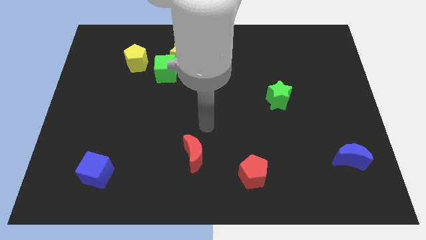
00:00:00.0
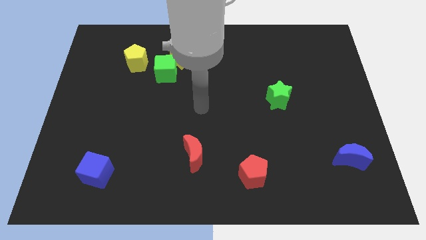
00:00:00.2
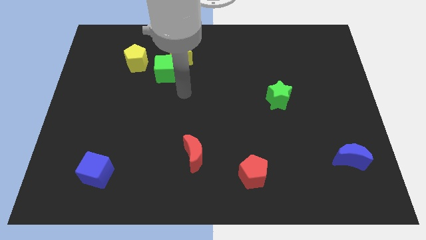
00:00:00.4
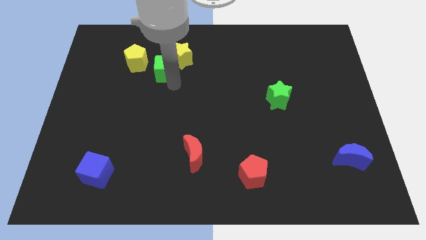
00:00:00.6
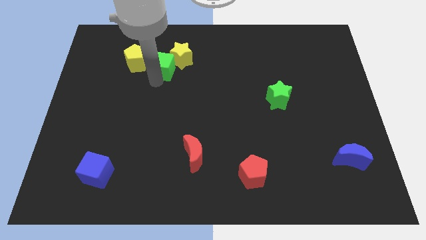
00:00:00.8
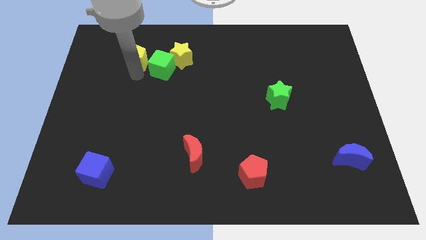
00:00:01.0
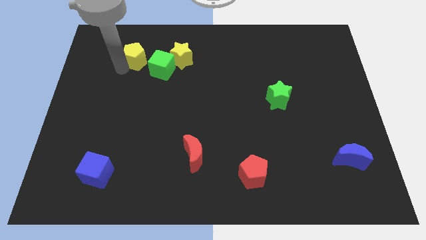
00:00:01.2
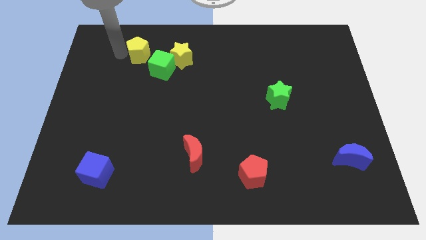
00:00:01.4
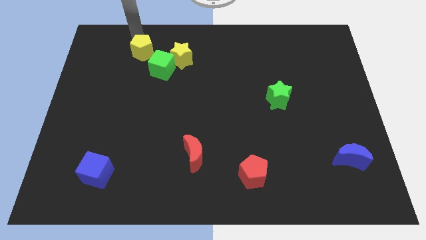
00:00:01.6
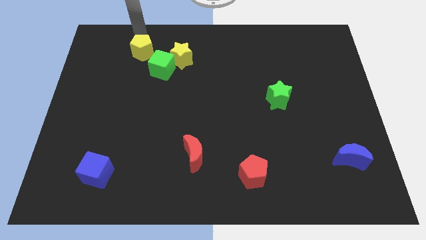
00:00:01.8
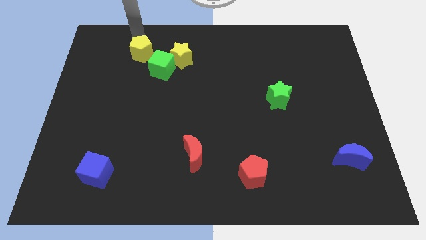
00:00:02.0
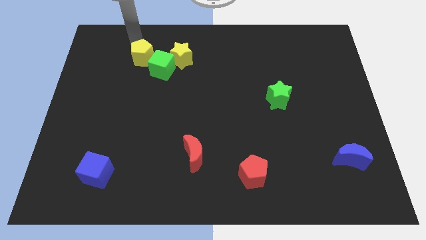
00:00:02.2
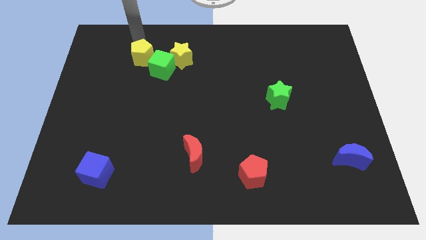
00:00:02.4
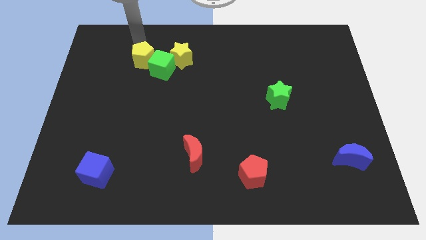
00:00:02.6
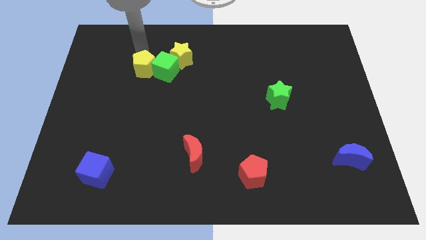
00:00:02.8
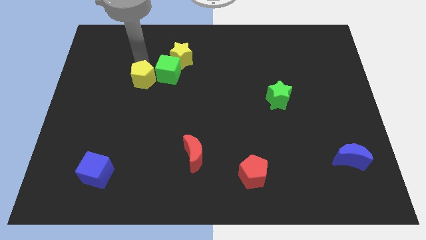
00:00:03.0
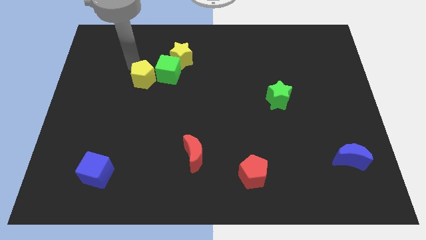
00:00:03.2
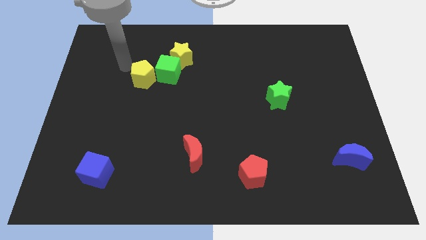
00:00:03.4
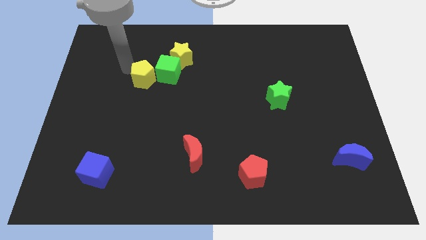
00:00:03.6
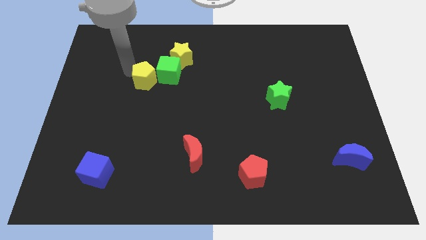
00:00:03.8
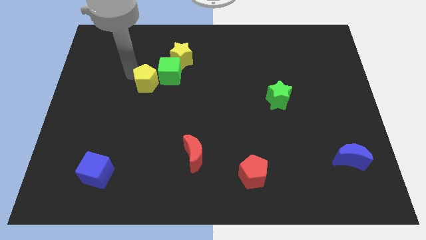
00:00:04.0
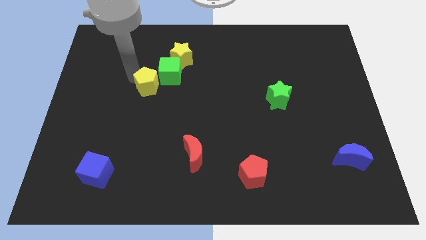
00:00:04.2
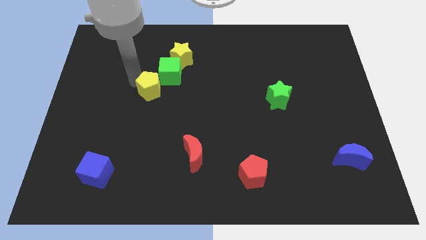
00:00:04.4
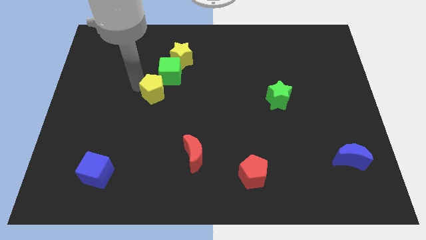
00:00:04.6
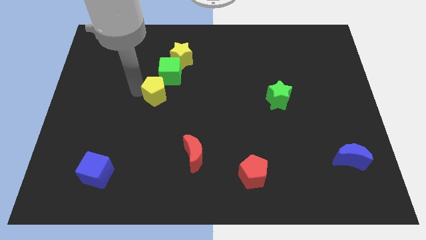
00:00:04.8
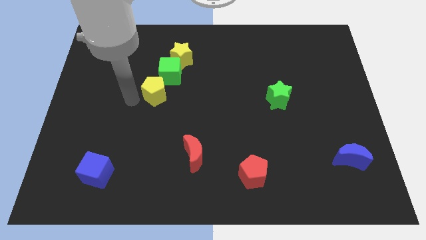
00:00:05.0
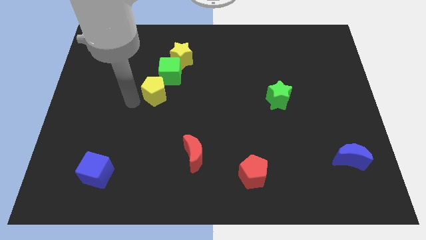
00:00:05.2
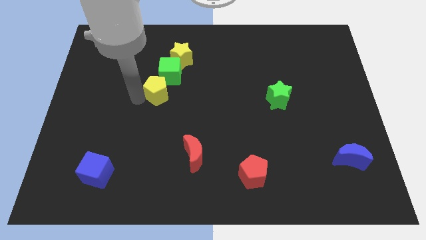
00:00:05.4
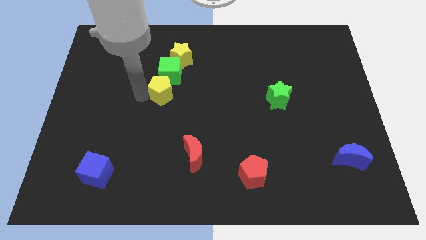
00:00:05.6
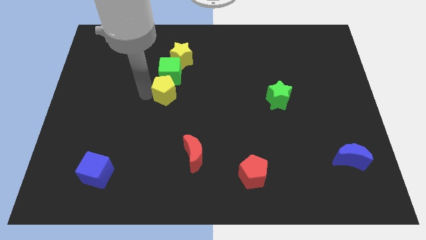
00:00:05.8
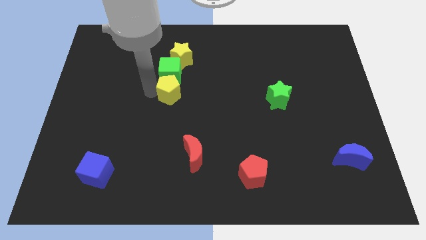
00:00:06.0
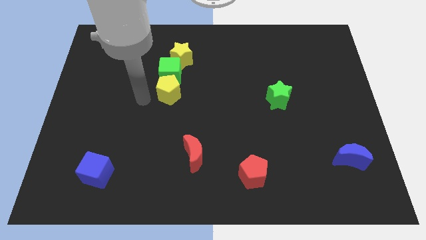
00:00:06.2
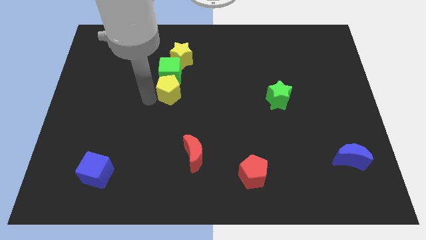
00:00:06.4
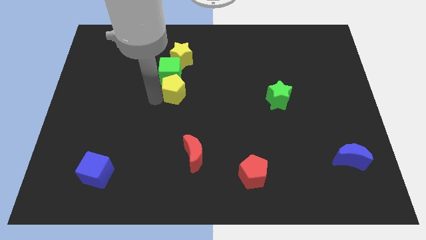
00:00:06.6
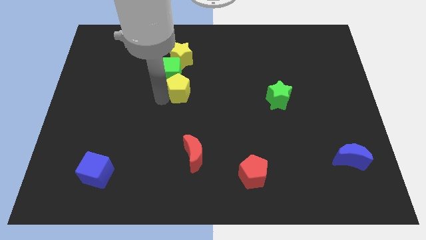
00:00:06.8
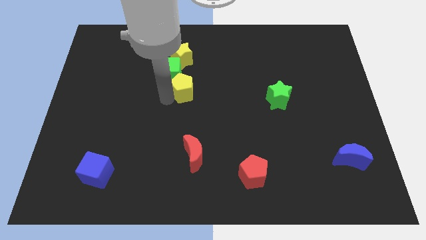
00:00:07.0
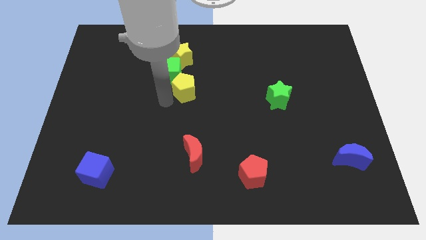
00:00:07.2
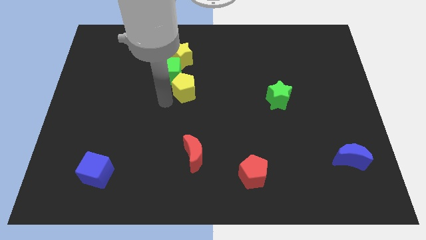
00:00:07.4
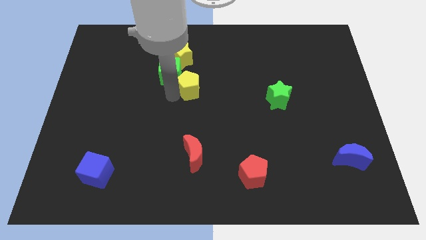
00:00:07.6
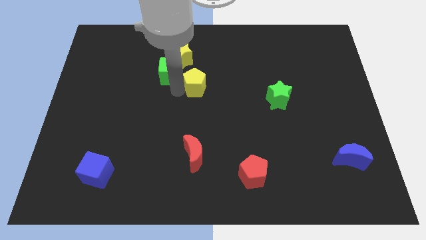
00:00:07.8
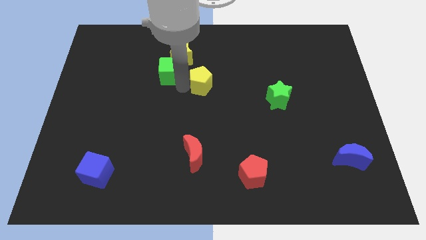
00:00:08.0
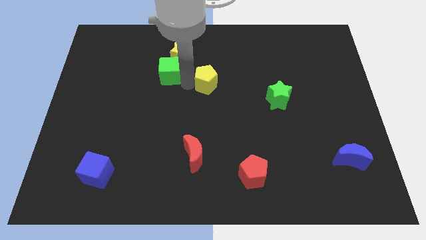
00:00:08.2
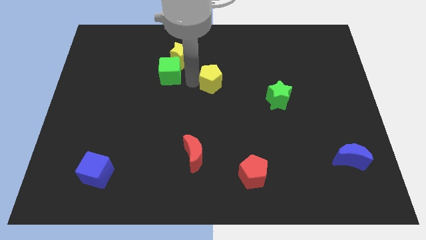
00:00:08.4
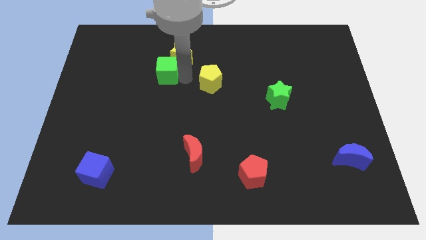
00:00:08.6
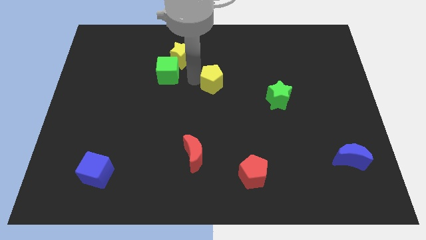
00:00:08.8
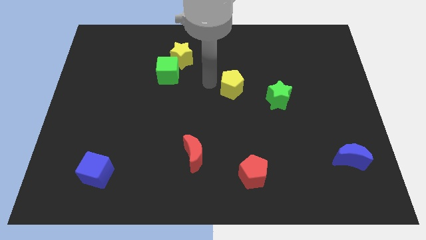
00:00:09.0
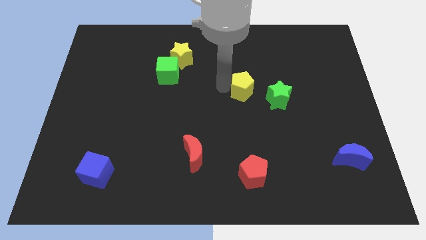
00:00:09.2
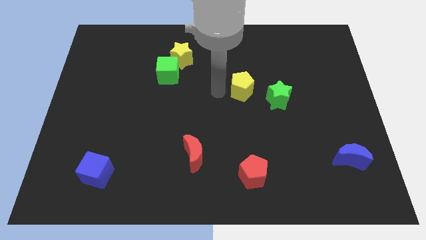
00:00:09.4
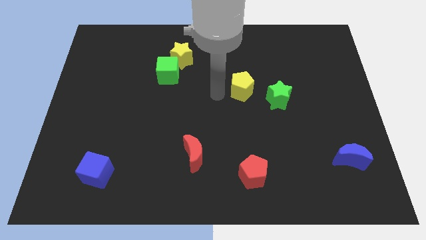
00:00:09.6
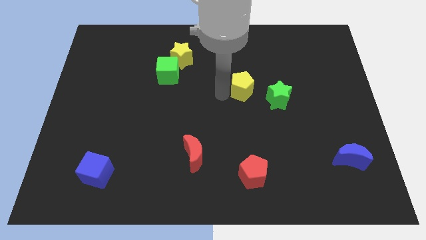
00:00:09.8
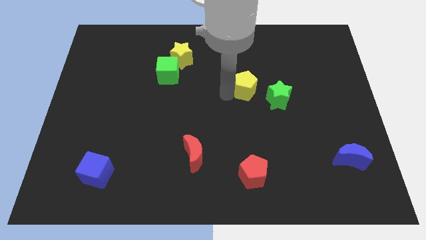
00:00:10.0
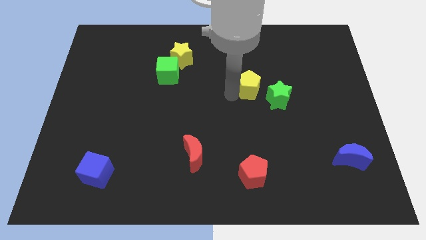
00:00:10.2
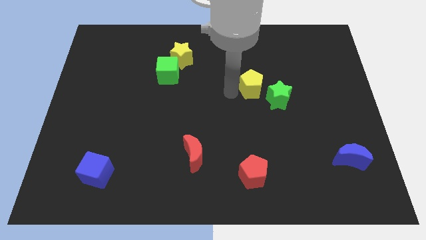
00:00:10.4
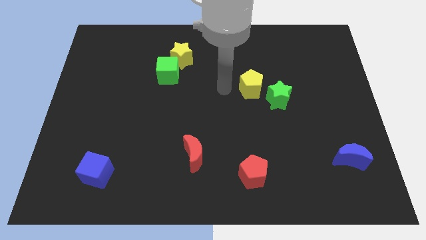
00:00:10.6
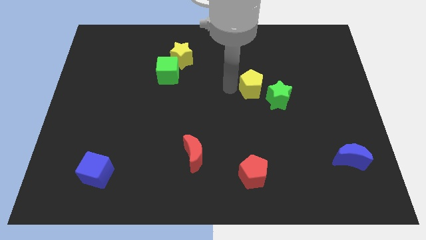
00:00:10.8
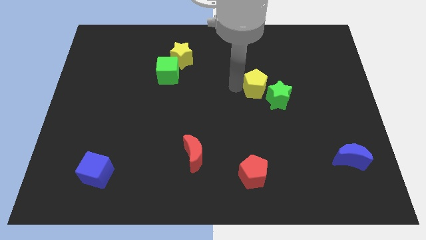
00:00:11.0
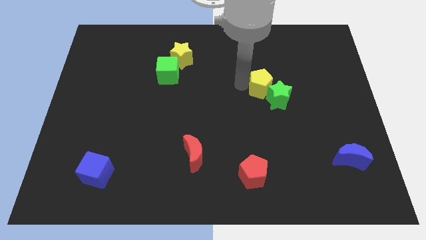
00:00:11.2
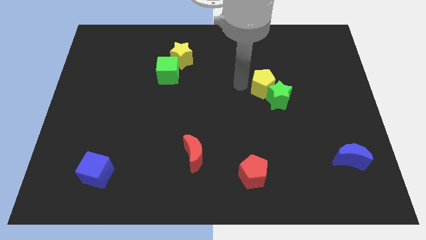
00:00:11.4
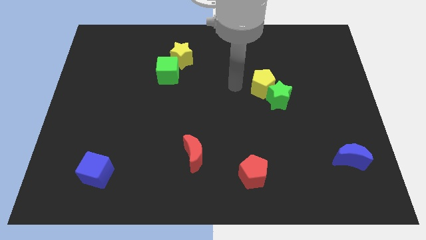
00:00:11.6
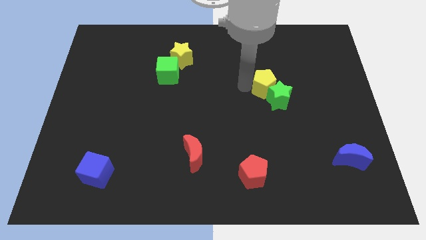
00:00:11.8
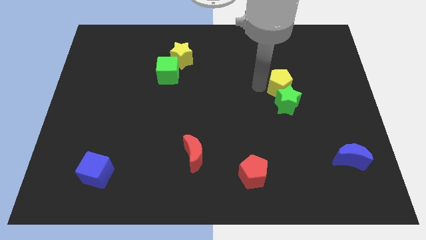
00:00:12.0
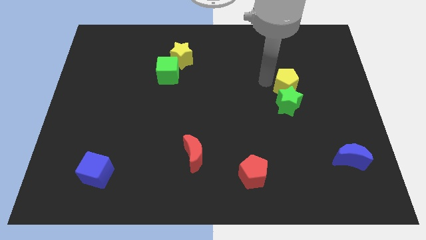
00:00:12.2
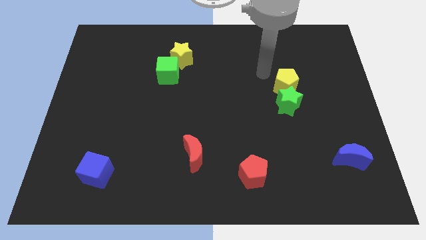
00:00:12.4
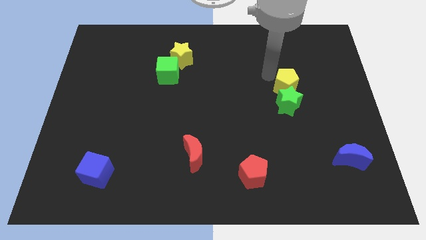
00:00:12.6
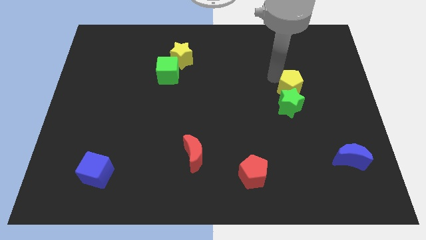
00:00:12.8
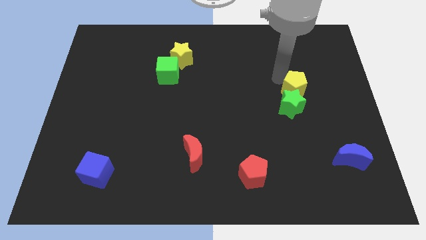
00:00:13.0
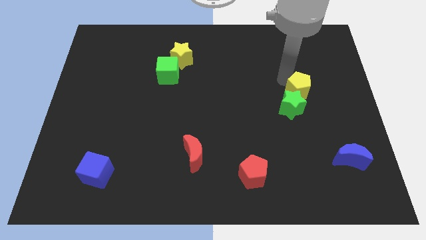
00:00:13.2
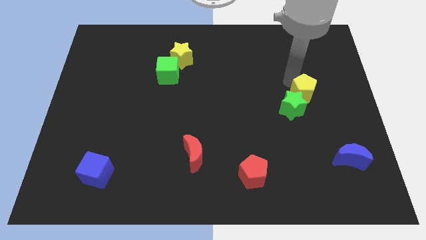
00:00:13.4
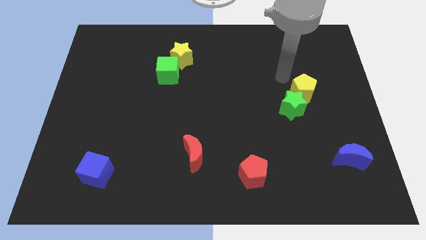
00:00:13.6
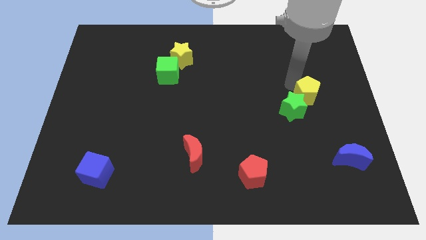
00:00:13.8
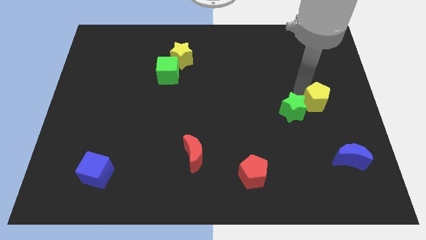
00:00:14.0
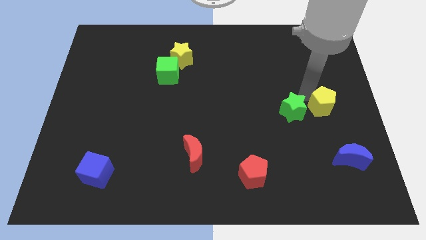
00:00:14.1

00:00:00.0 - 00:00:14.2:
slide the yellow pentagon to the center right
